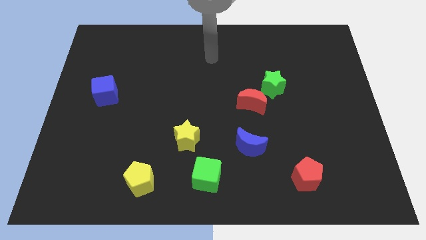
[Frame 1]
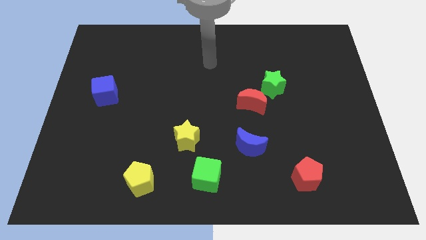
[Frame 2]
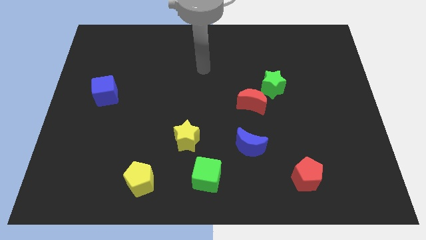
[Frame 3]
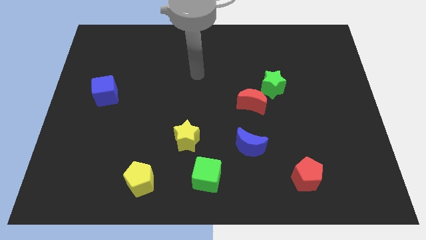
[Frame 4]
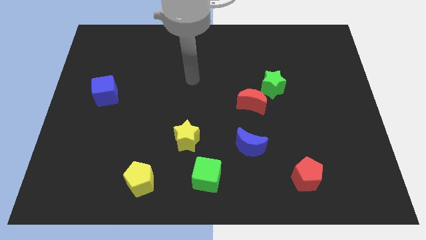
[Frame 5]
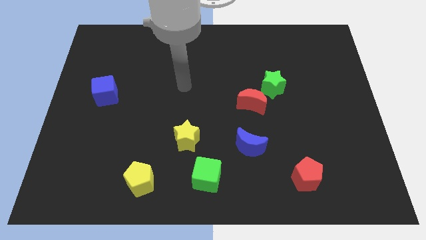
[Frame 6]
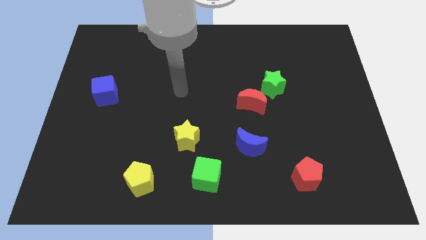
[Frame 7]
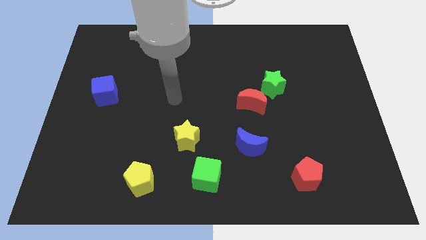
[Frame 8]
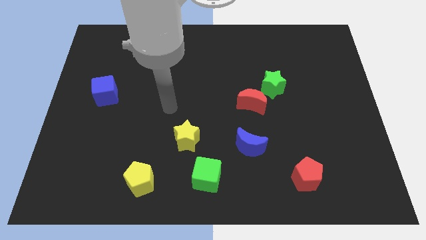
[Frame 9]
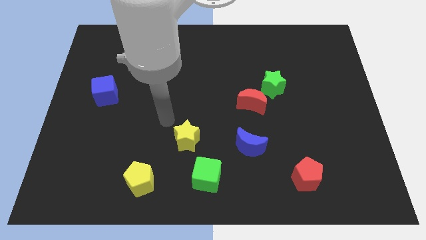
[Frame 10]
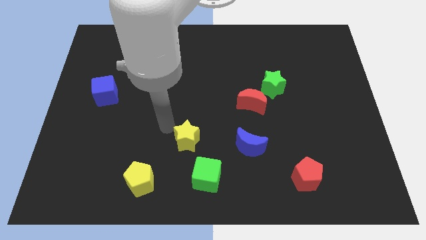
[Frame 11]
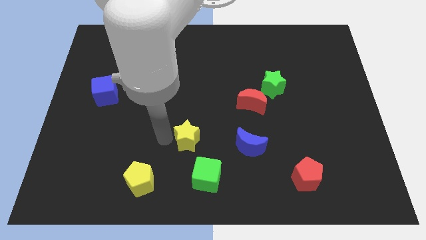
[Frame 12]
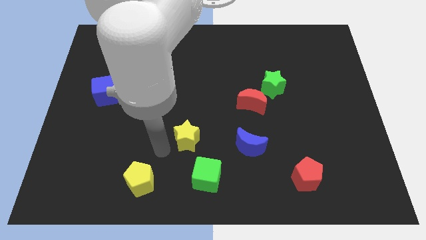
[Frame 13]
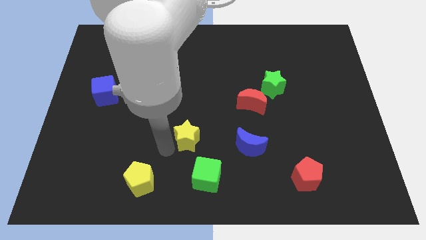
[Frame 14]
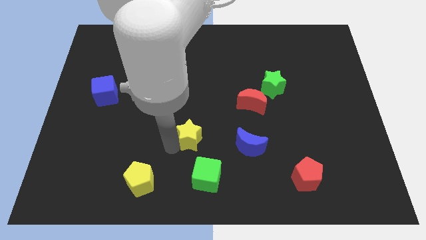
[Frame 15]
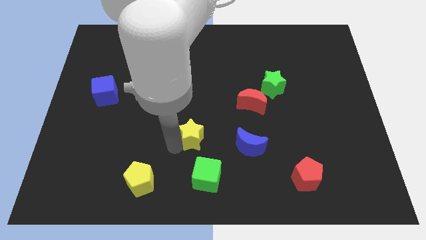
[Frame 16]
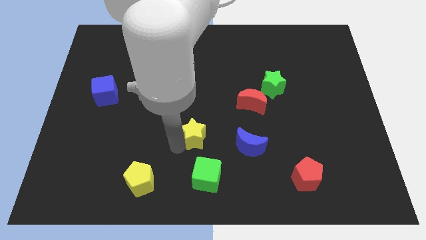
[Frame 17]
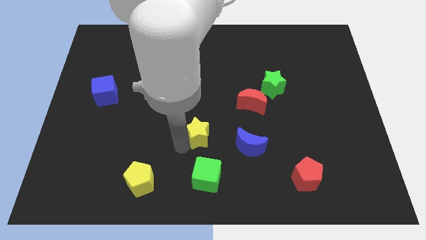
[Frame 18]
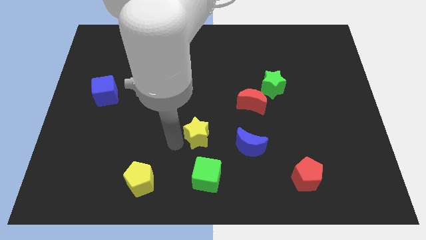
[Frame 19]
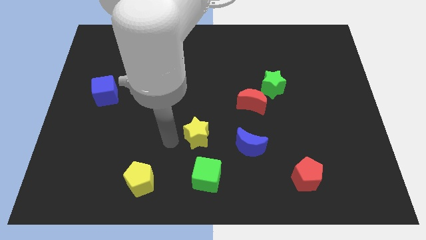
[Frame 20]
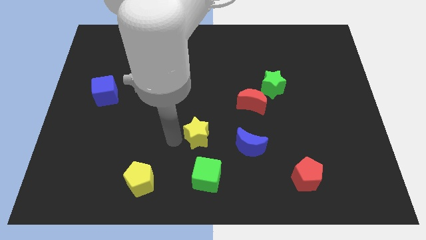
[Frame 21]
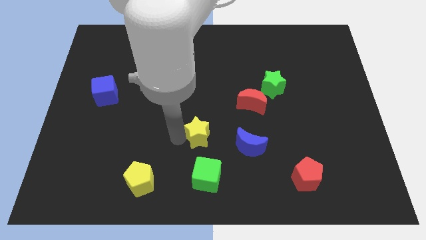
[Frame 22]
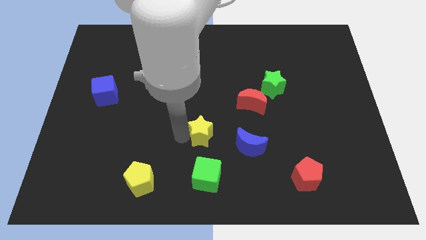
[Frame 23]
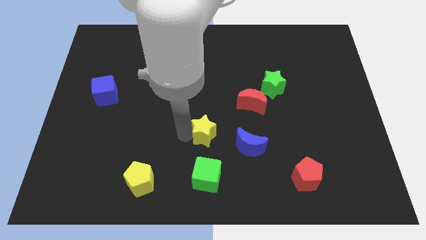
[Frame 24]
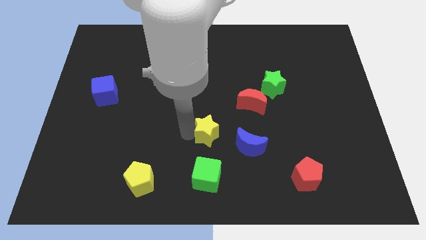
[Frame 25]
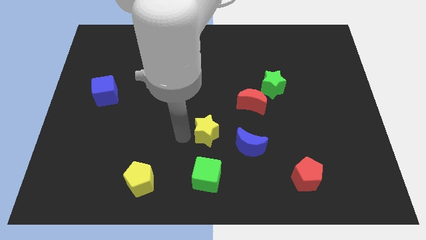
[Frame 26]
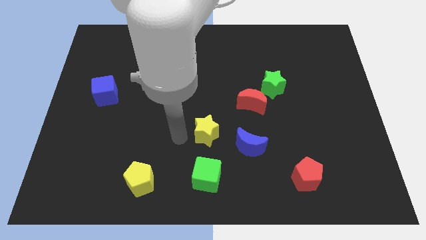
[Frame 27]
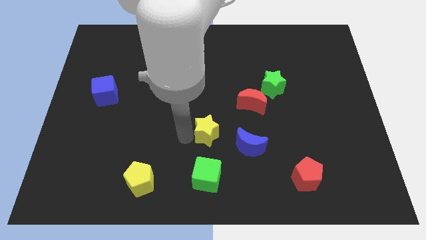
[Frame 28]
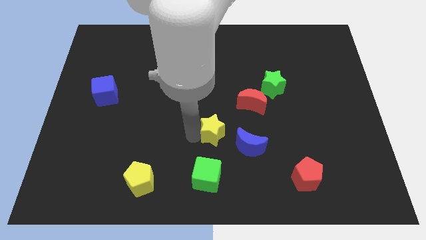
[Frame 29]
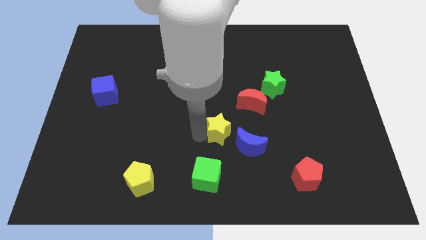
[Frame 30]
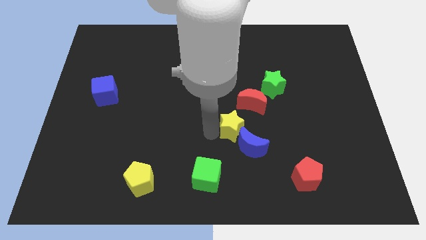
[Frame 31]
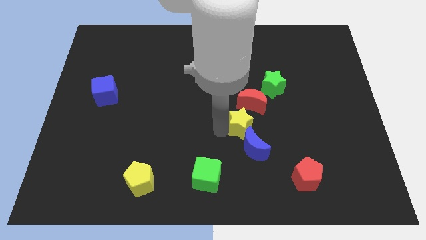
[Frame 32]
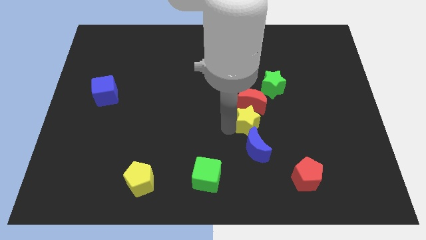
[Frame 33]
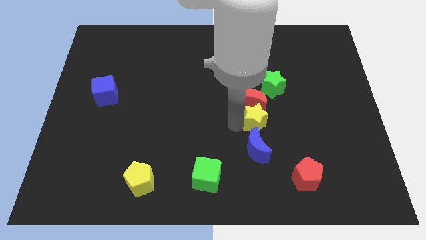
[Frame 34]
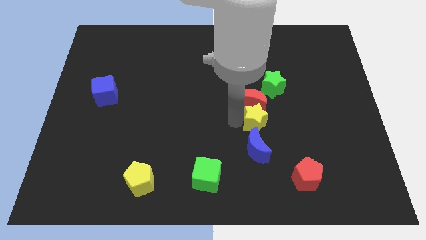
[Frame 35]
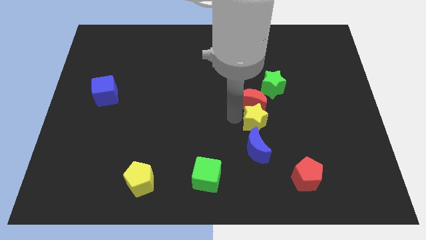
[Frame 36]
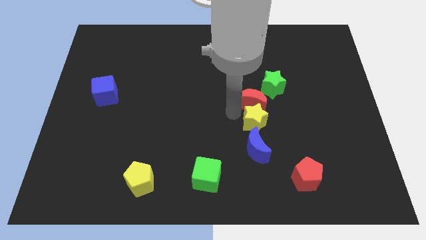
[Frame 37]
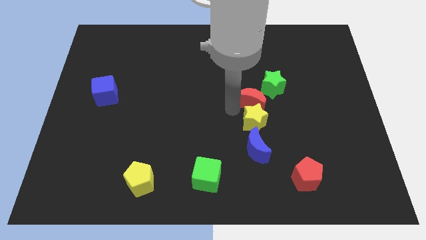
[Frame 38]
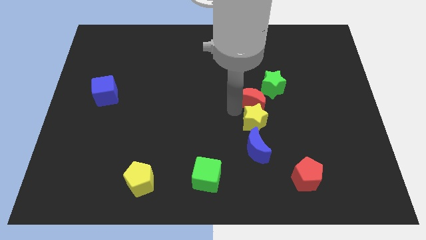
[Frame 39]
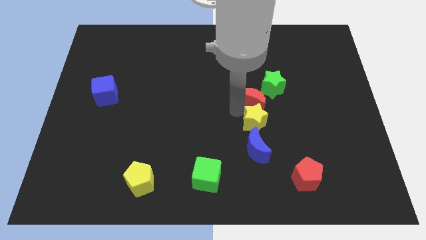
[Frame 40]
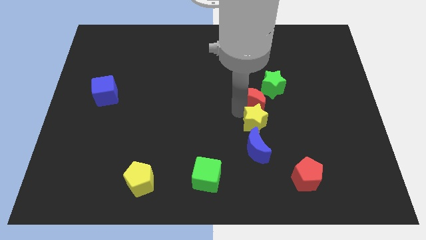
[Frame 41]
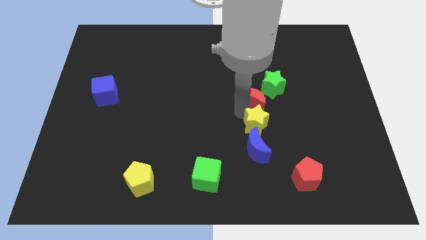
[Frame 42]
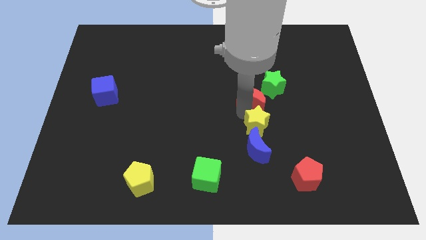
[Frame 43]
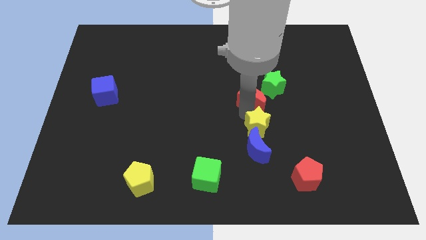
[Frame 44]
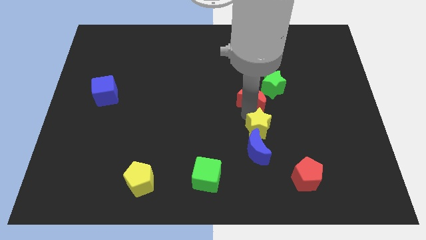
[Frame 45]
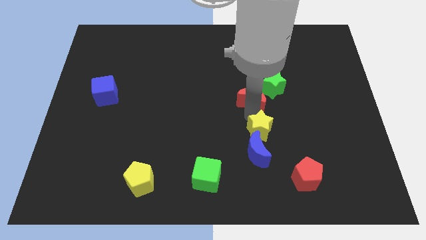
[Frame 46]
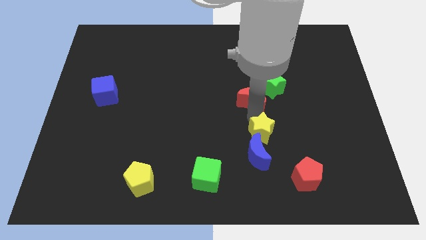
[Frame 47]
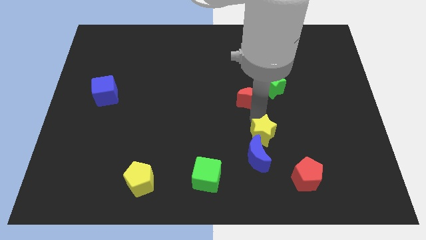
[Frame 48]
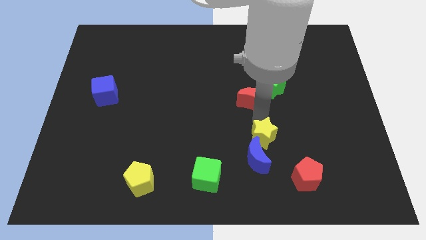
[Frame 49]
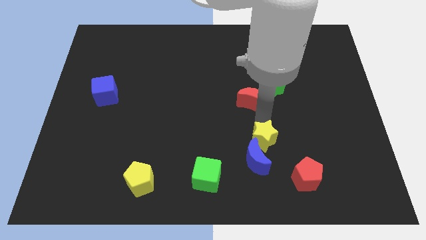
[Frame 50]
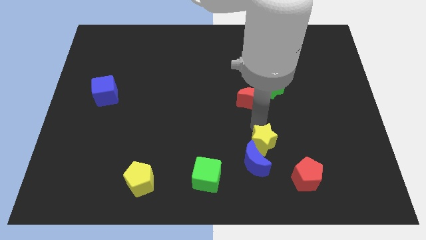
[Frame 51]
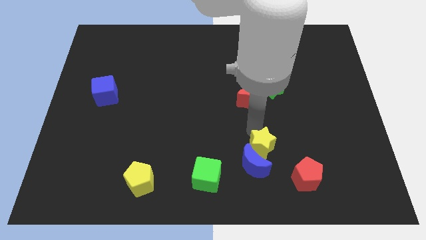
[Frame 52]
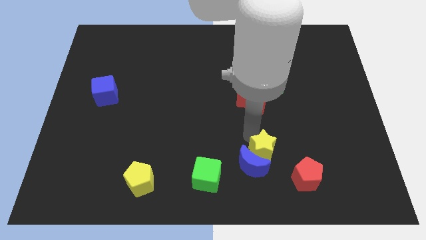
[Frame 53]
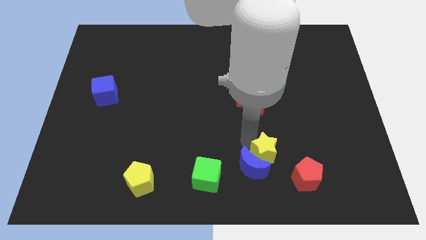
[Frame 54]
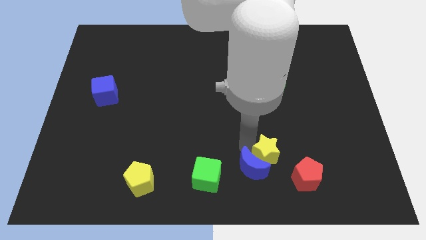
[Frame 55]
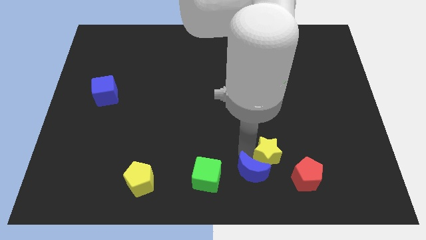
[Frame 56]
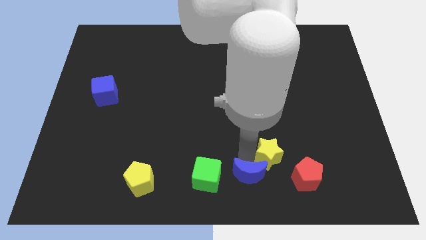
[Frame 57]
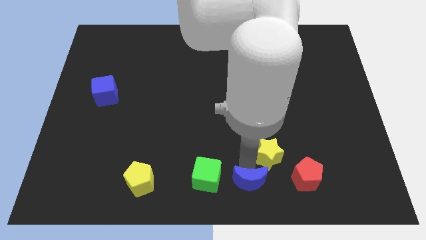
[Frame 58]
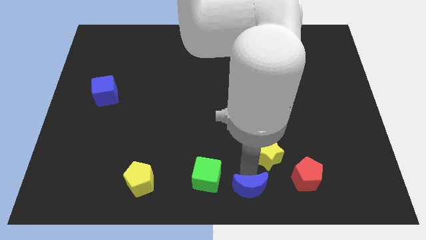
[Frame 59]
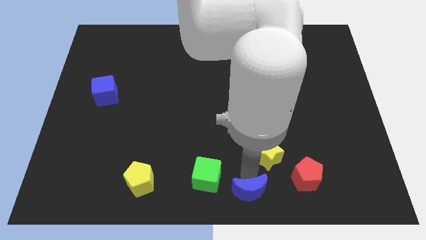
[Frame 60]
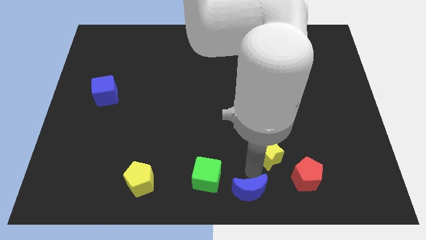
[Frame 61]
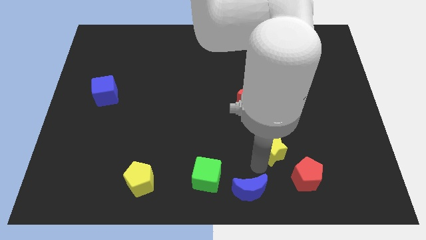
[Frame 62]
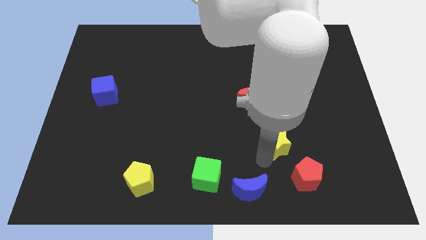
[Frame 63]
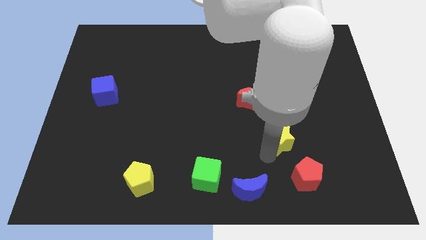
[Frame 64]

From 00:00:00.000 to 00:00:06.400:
move the yellow star to the right

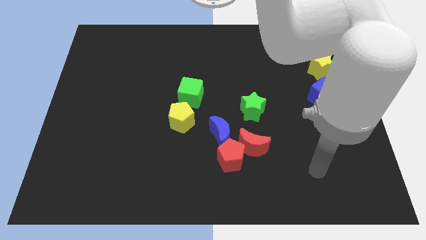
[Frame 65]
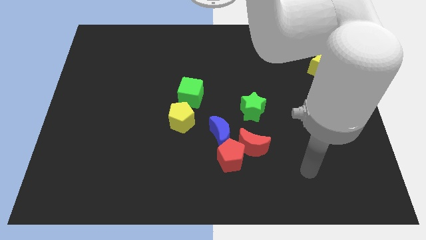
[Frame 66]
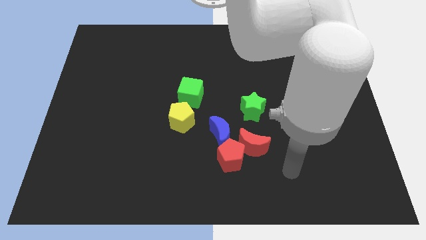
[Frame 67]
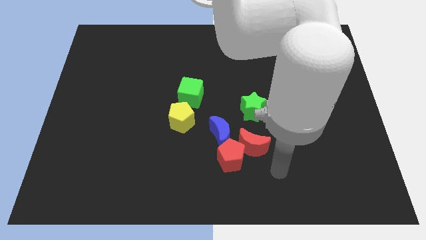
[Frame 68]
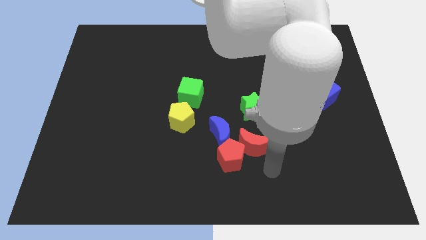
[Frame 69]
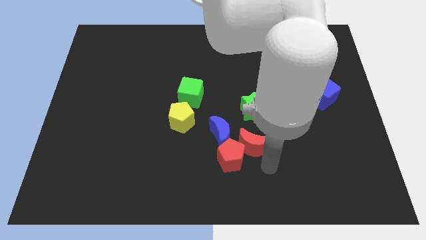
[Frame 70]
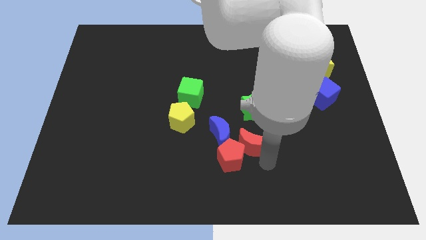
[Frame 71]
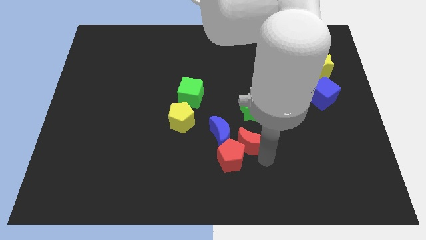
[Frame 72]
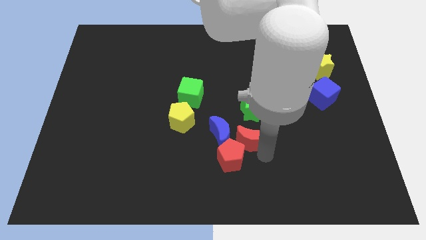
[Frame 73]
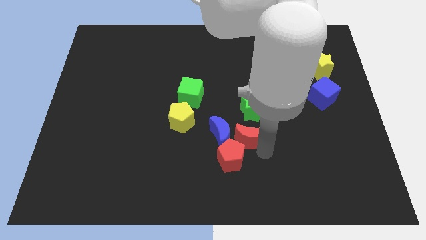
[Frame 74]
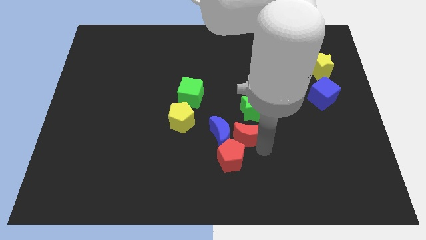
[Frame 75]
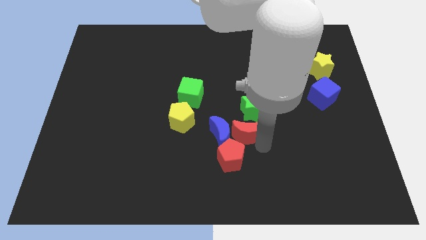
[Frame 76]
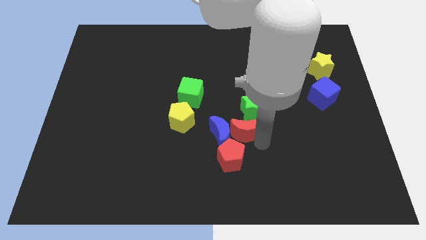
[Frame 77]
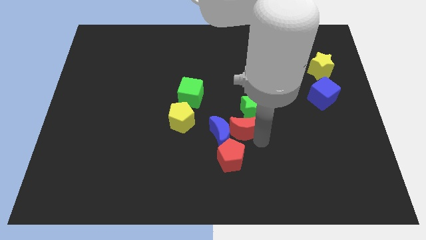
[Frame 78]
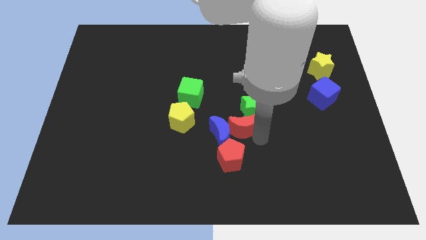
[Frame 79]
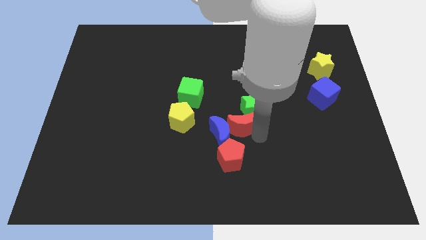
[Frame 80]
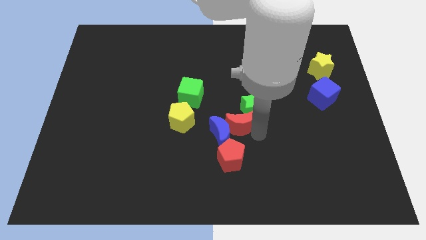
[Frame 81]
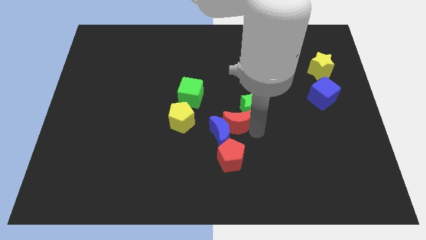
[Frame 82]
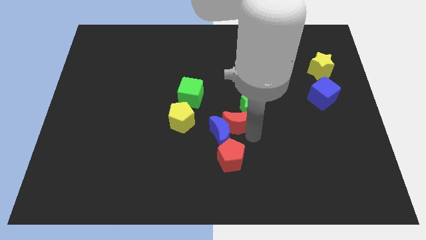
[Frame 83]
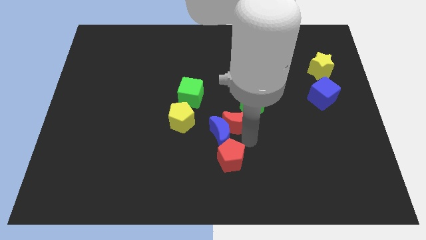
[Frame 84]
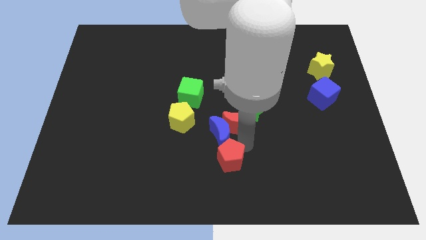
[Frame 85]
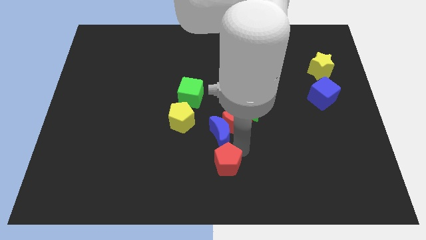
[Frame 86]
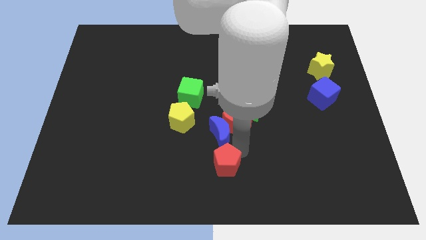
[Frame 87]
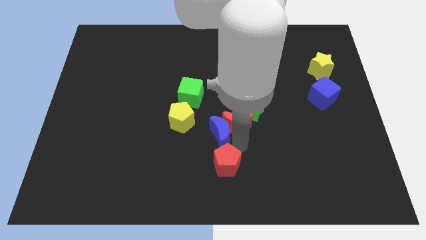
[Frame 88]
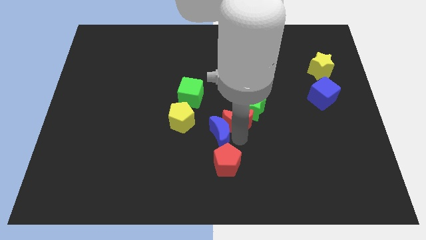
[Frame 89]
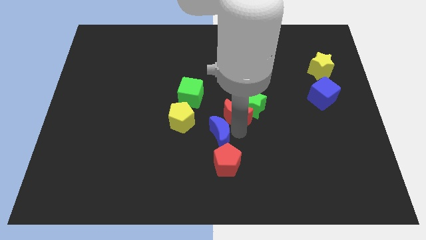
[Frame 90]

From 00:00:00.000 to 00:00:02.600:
slightly slide the red moon upwards
